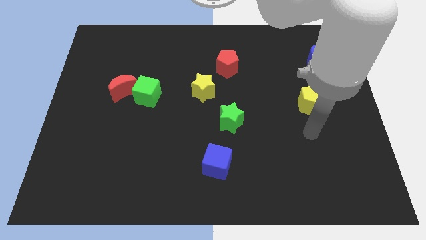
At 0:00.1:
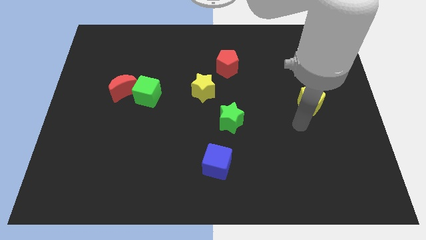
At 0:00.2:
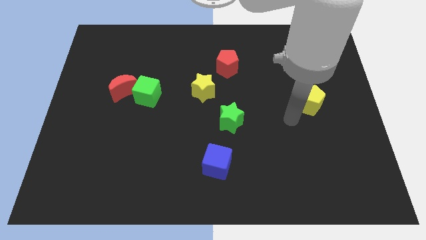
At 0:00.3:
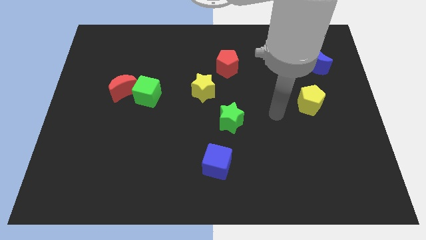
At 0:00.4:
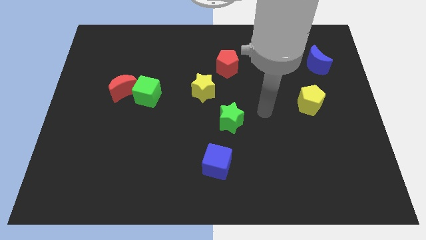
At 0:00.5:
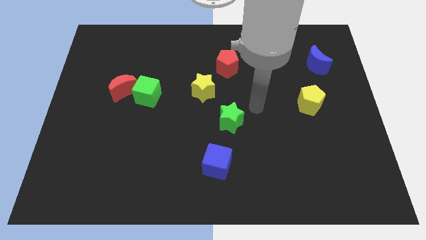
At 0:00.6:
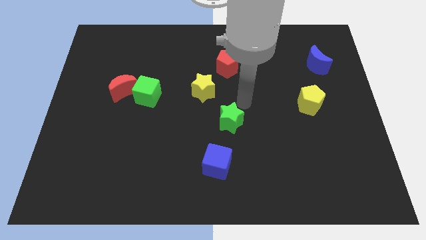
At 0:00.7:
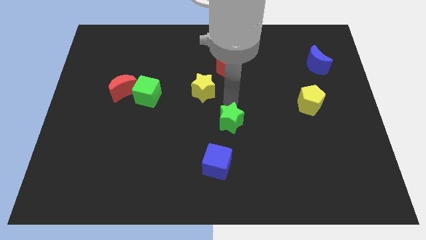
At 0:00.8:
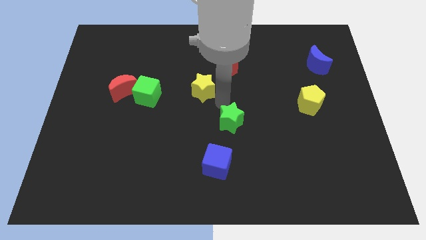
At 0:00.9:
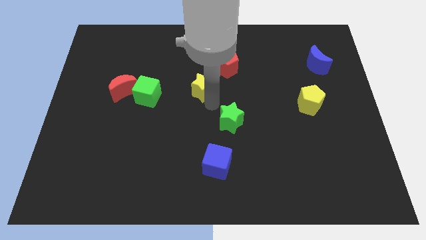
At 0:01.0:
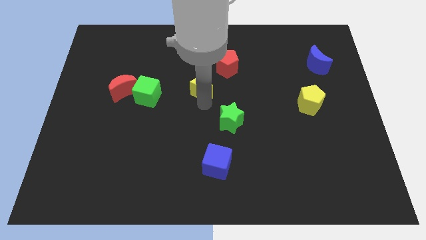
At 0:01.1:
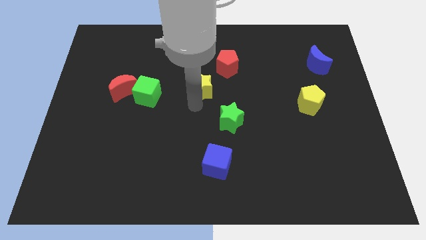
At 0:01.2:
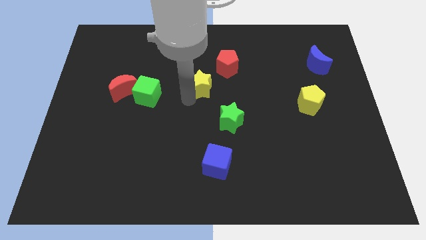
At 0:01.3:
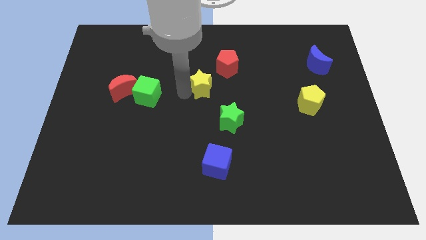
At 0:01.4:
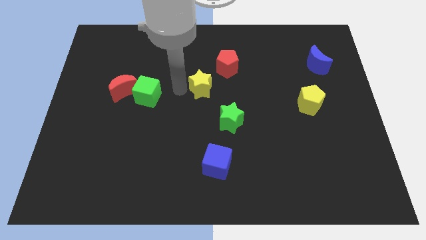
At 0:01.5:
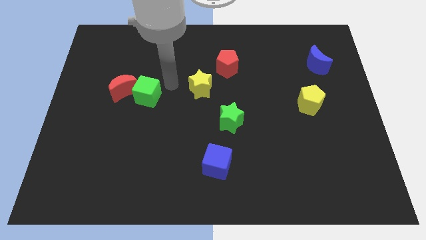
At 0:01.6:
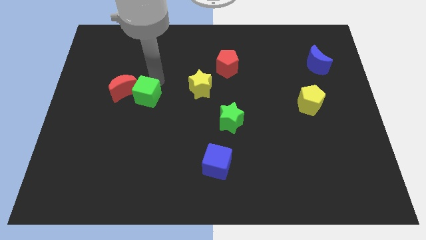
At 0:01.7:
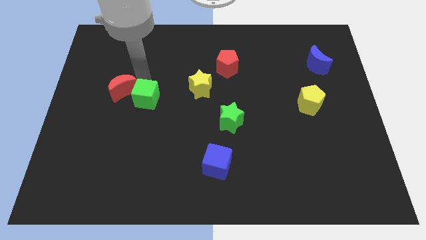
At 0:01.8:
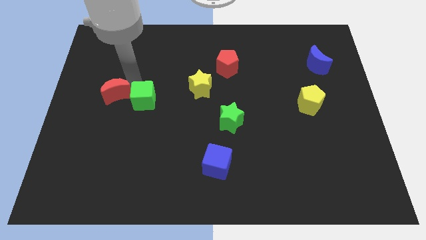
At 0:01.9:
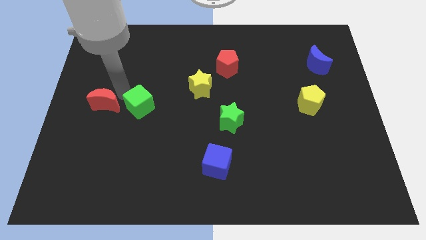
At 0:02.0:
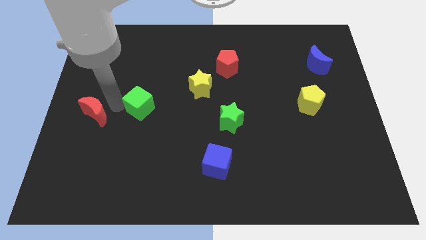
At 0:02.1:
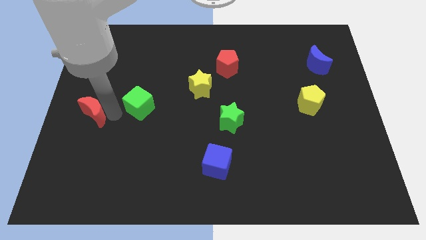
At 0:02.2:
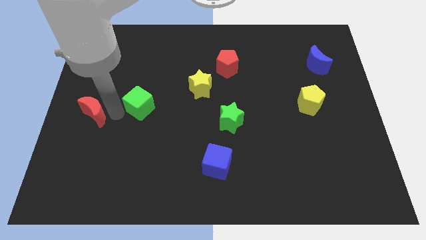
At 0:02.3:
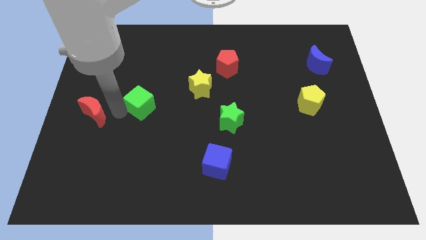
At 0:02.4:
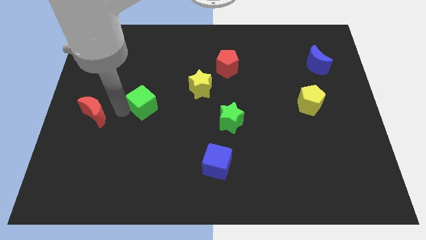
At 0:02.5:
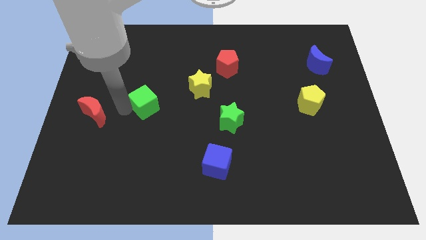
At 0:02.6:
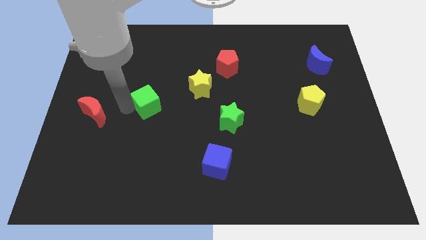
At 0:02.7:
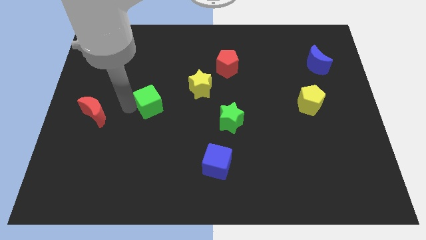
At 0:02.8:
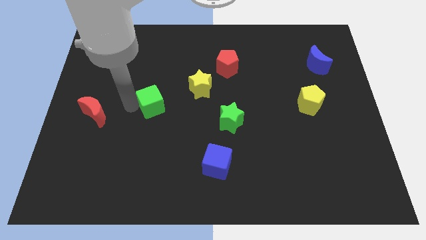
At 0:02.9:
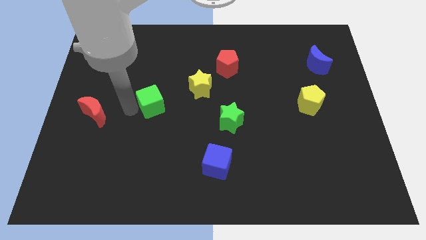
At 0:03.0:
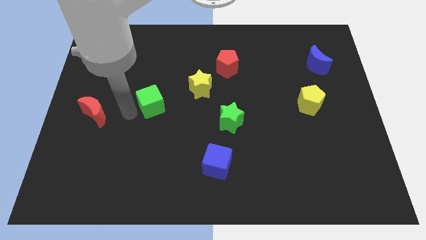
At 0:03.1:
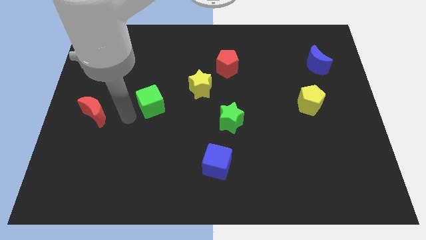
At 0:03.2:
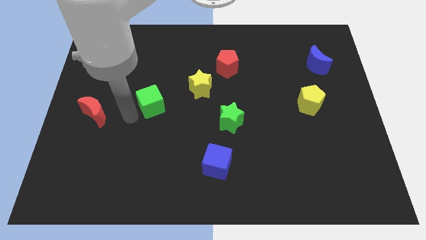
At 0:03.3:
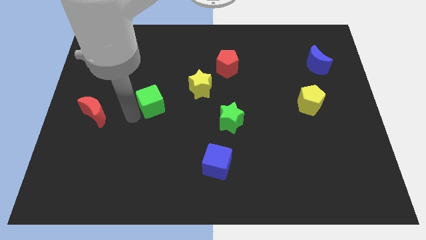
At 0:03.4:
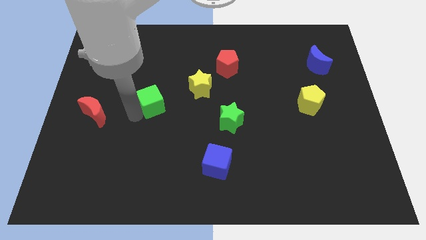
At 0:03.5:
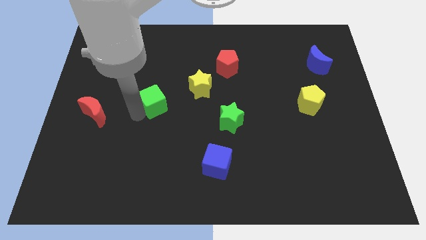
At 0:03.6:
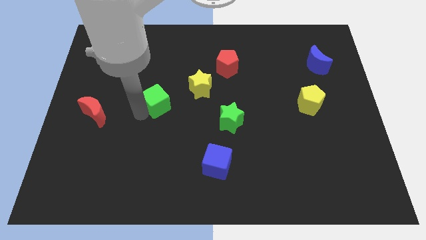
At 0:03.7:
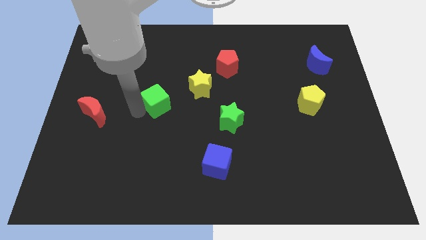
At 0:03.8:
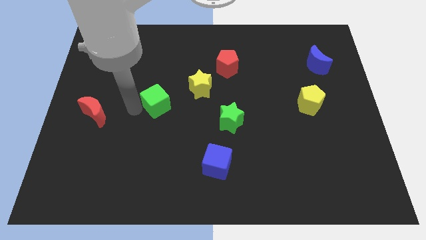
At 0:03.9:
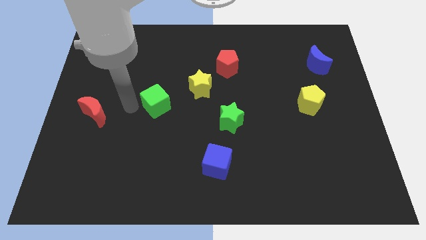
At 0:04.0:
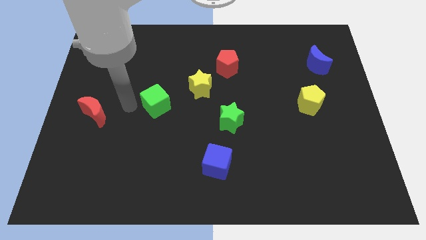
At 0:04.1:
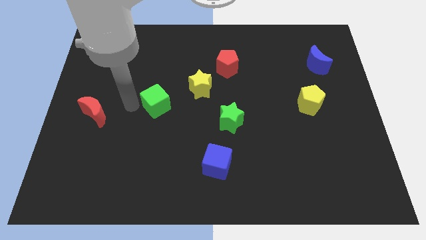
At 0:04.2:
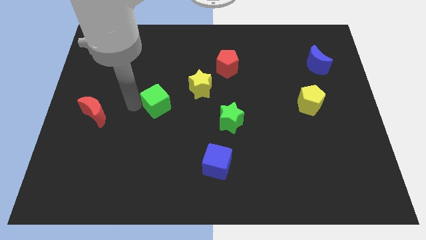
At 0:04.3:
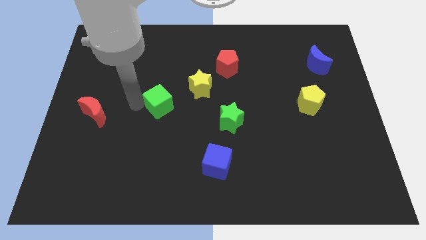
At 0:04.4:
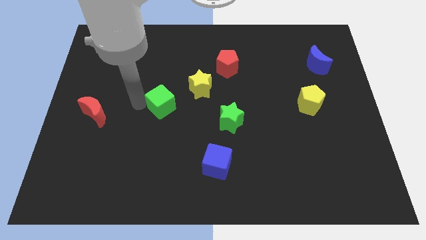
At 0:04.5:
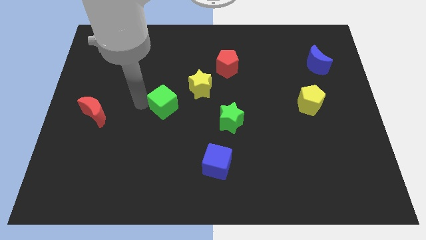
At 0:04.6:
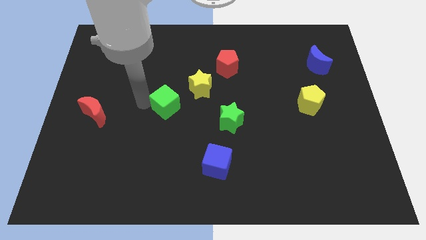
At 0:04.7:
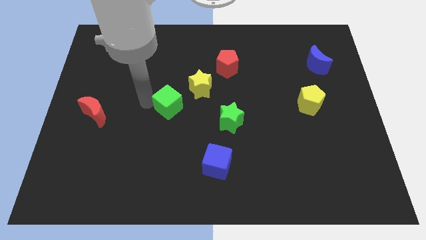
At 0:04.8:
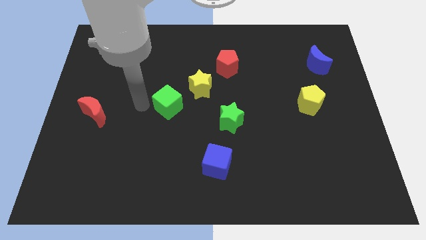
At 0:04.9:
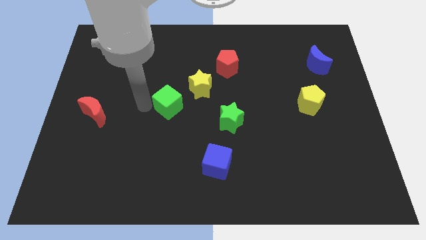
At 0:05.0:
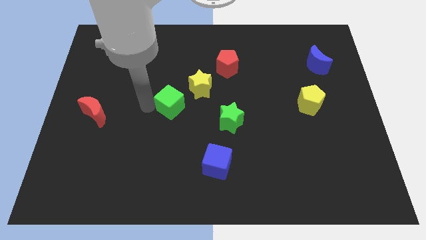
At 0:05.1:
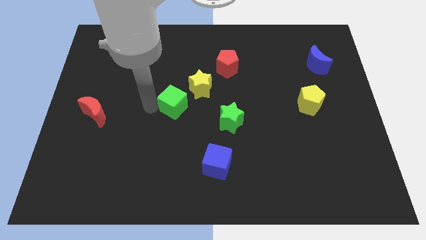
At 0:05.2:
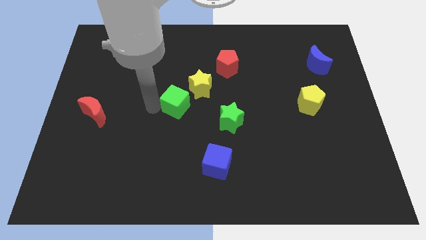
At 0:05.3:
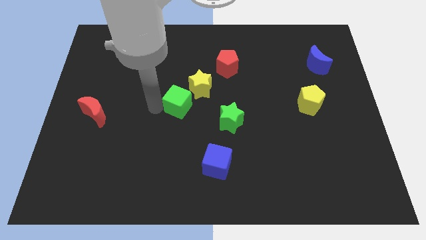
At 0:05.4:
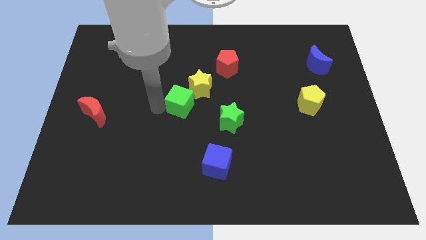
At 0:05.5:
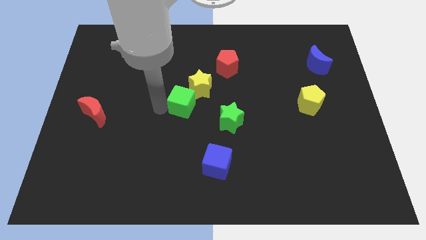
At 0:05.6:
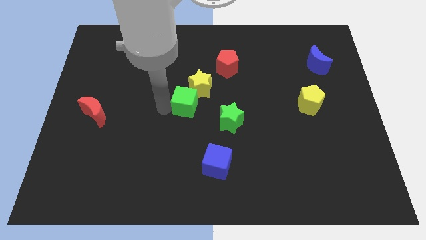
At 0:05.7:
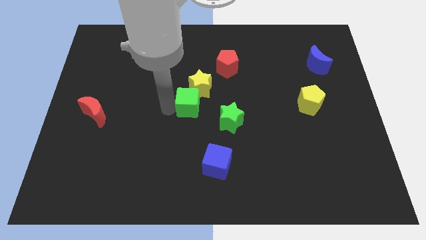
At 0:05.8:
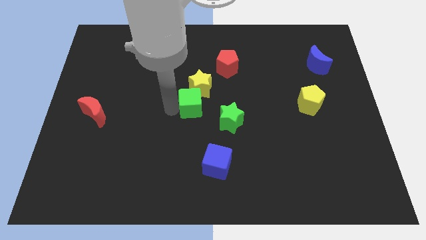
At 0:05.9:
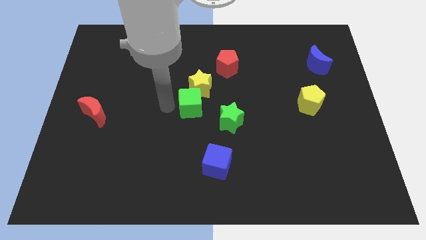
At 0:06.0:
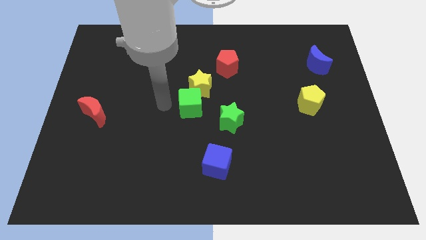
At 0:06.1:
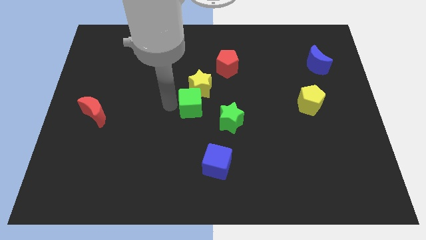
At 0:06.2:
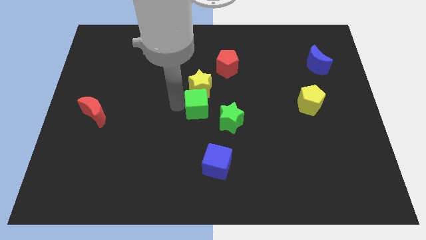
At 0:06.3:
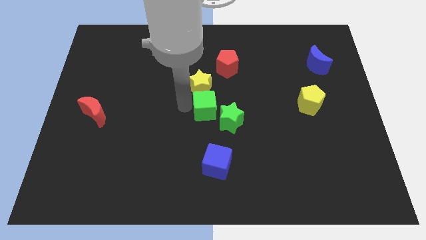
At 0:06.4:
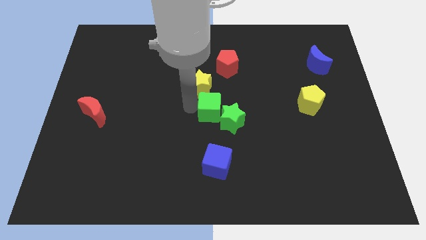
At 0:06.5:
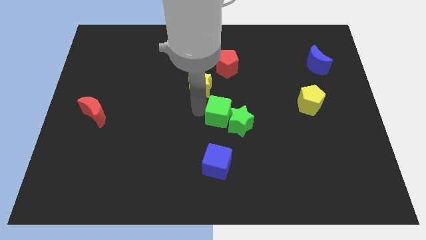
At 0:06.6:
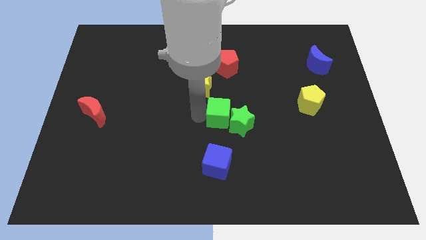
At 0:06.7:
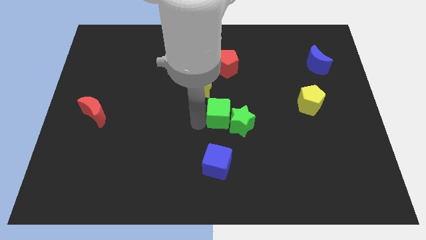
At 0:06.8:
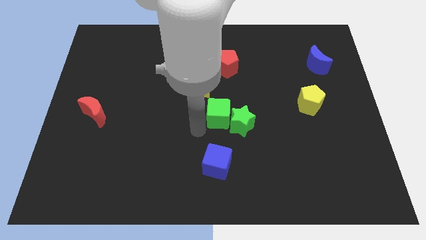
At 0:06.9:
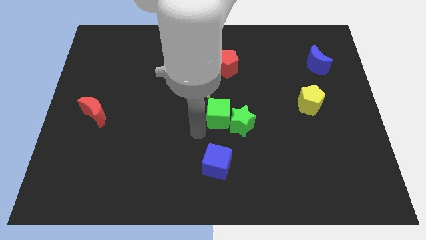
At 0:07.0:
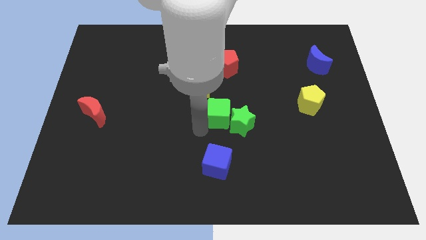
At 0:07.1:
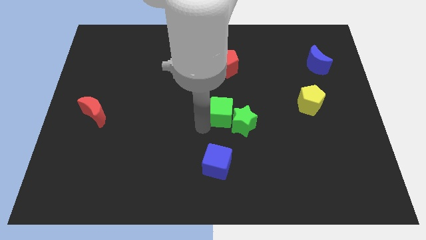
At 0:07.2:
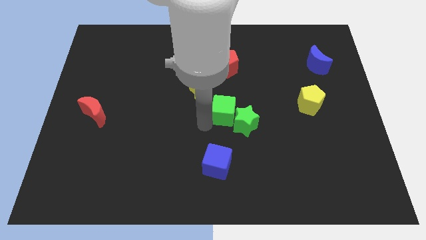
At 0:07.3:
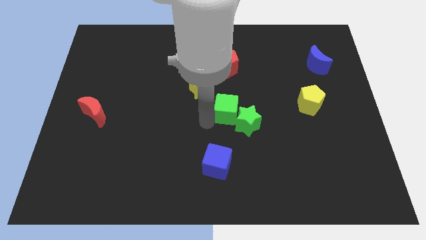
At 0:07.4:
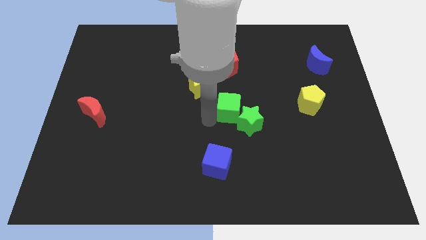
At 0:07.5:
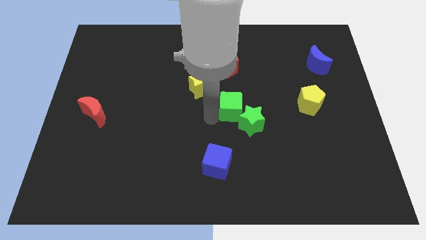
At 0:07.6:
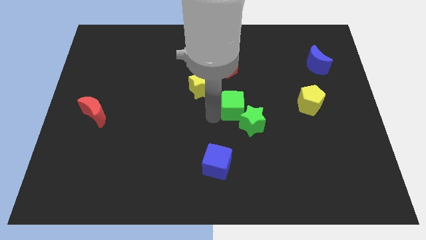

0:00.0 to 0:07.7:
push the green cube right

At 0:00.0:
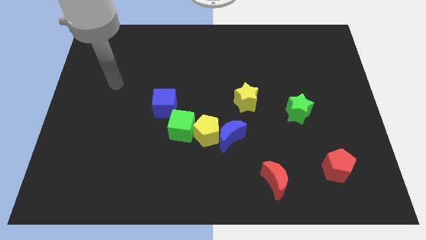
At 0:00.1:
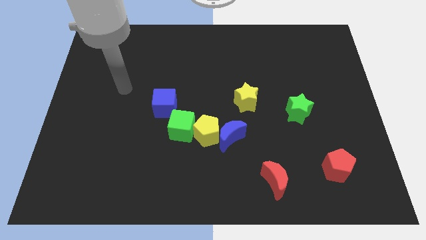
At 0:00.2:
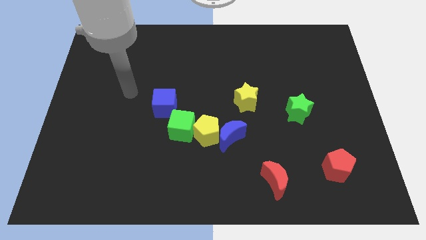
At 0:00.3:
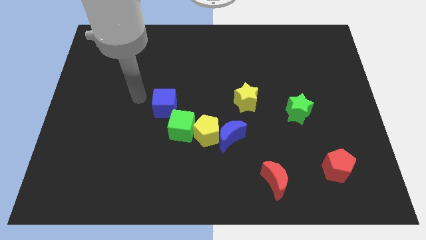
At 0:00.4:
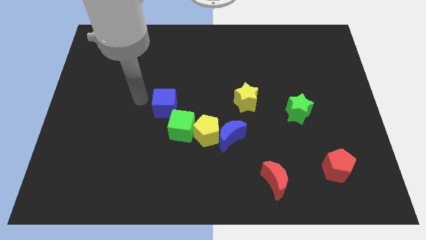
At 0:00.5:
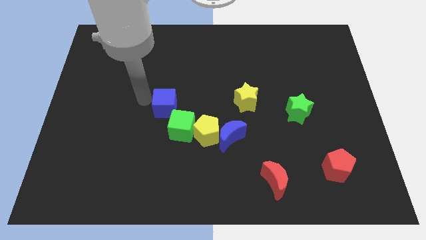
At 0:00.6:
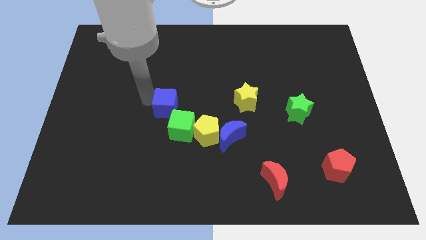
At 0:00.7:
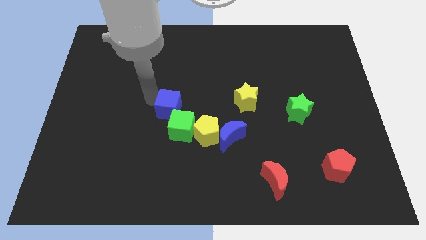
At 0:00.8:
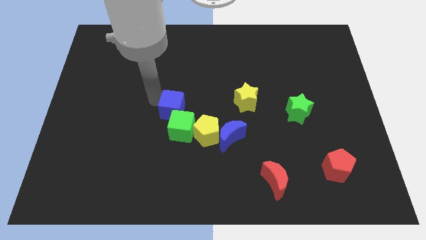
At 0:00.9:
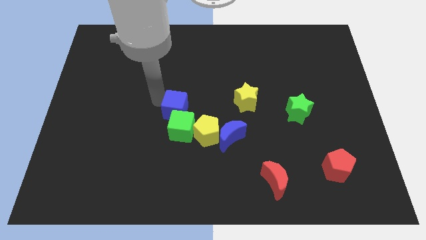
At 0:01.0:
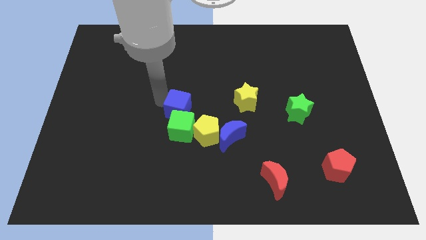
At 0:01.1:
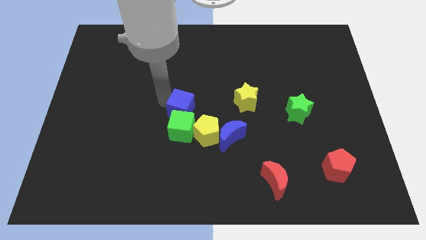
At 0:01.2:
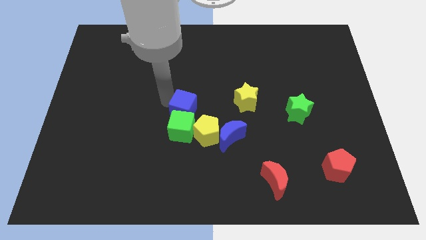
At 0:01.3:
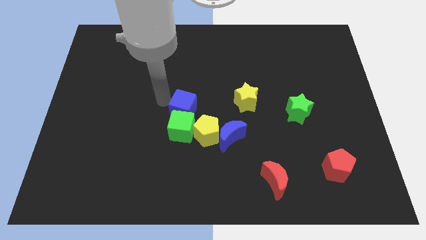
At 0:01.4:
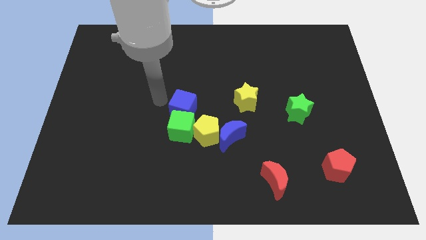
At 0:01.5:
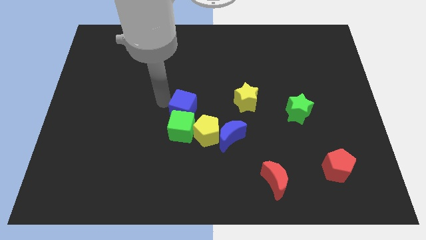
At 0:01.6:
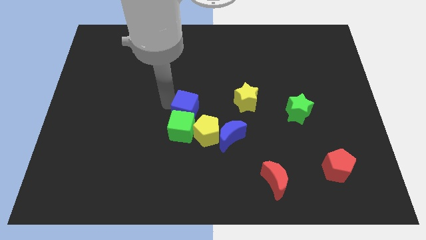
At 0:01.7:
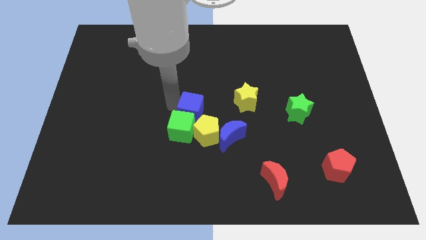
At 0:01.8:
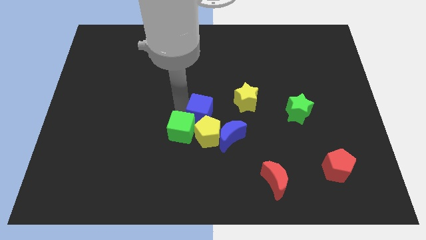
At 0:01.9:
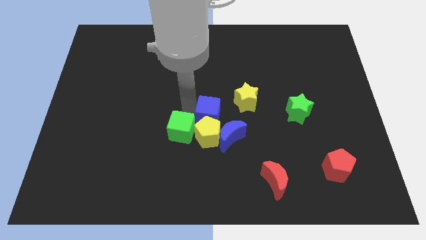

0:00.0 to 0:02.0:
slightly push the blue cube down and right diagonally
